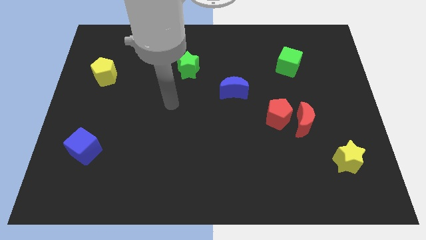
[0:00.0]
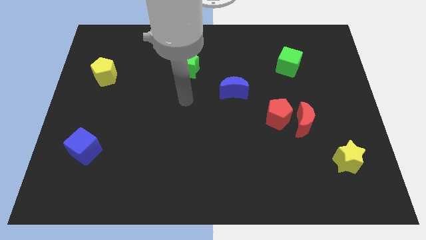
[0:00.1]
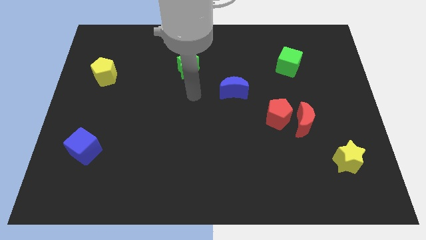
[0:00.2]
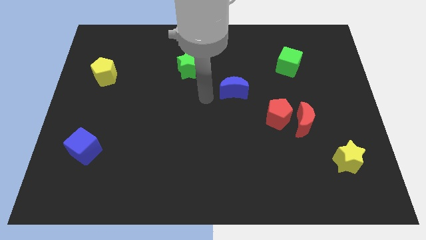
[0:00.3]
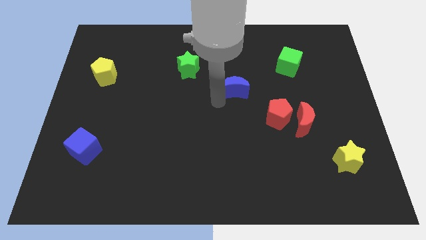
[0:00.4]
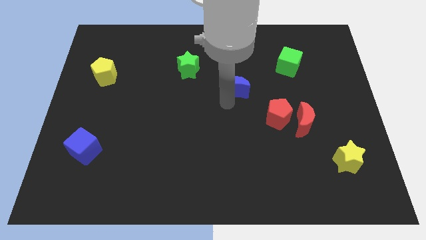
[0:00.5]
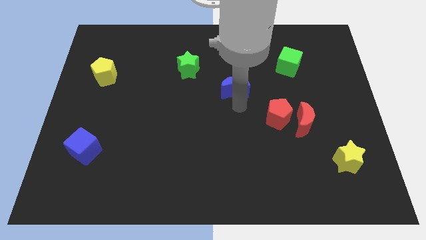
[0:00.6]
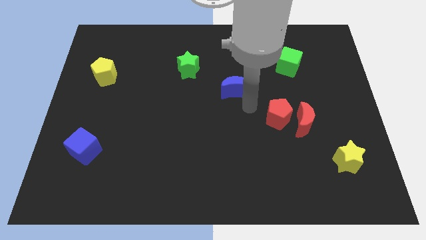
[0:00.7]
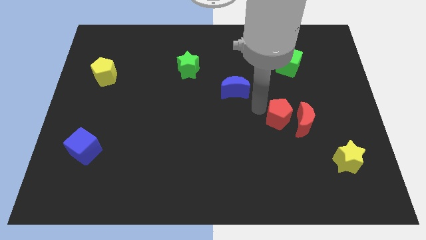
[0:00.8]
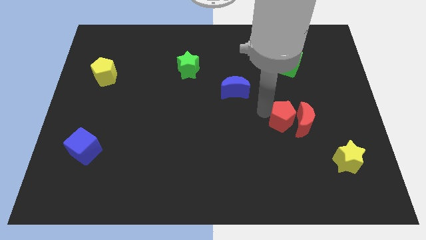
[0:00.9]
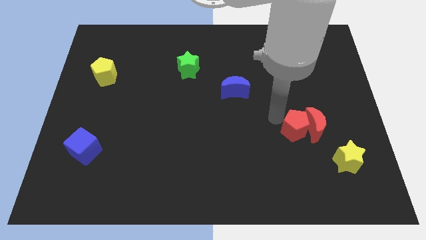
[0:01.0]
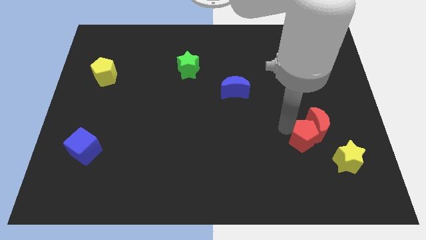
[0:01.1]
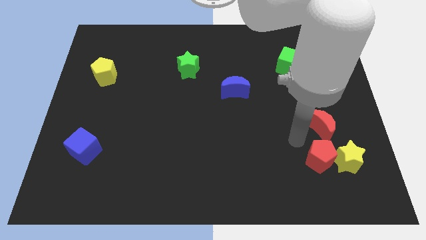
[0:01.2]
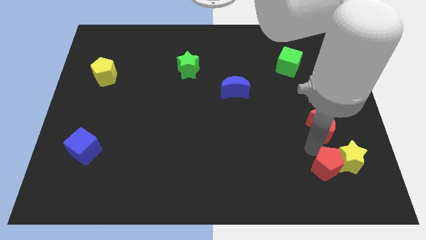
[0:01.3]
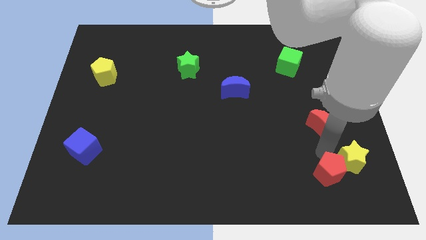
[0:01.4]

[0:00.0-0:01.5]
move the red moon away from the red pentagon

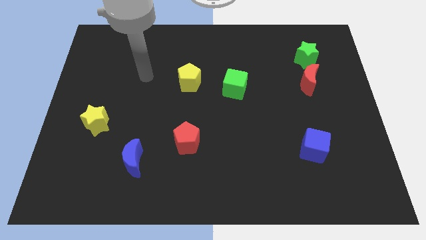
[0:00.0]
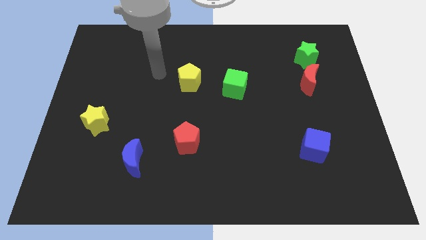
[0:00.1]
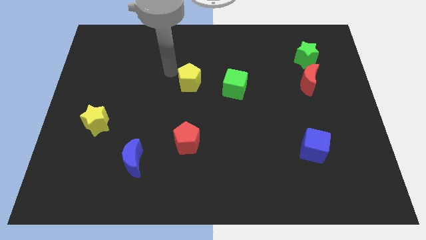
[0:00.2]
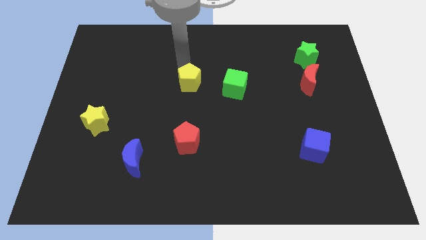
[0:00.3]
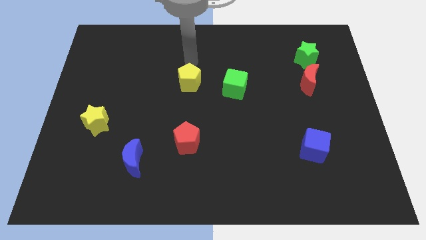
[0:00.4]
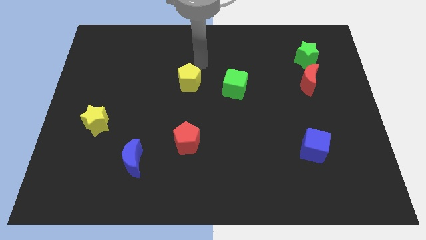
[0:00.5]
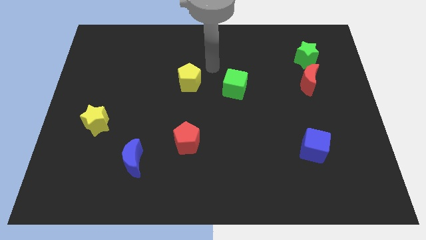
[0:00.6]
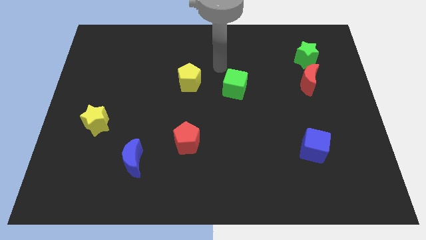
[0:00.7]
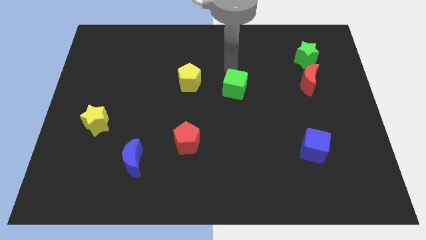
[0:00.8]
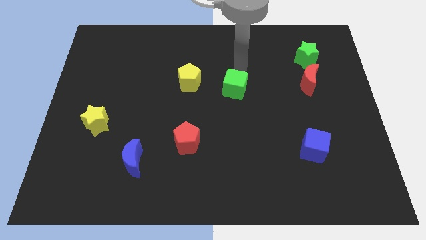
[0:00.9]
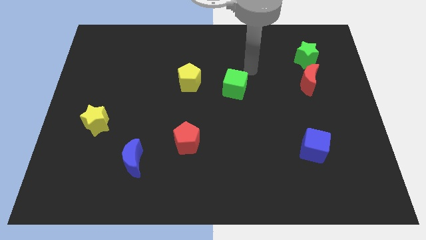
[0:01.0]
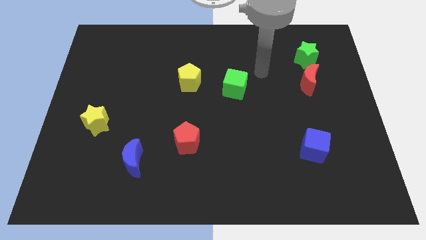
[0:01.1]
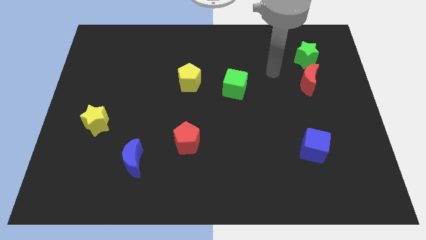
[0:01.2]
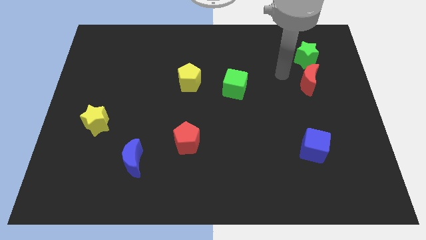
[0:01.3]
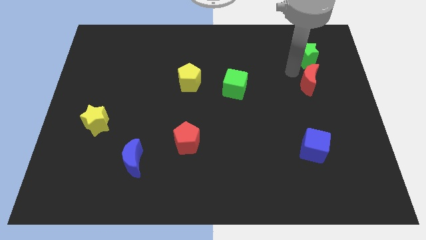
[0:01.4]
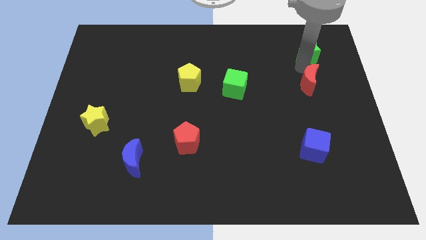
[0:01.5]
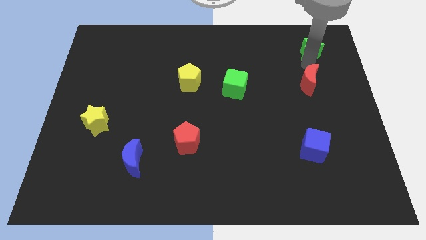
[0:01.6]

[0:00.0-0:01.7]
pull the red moon apart from the green star

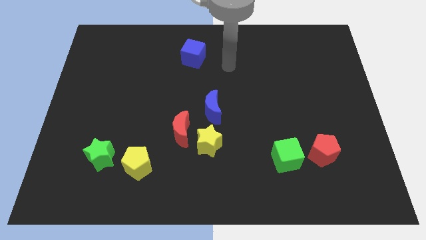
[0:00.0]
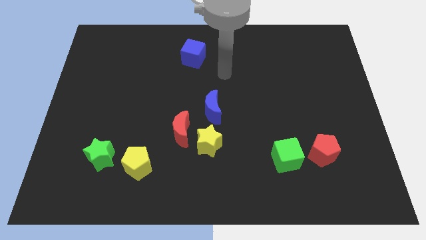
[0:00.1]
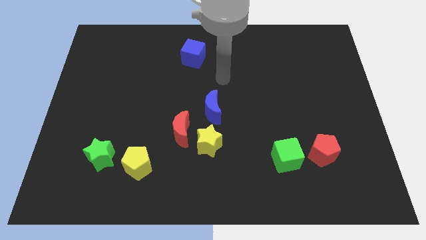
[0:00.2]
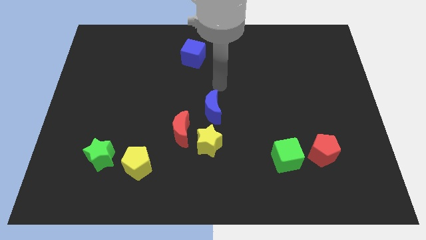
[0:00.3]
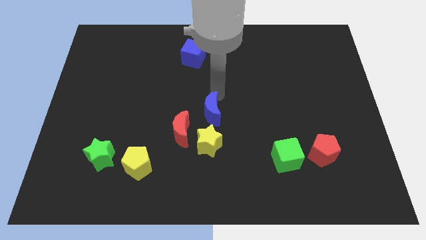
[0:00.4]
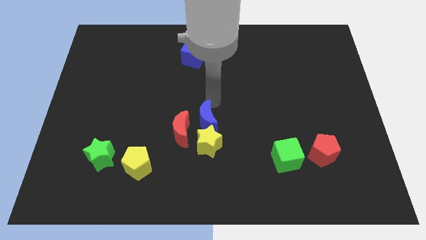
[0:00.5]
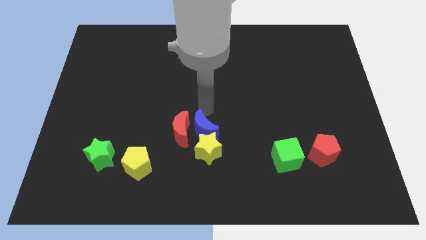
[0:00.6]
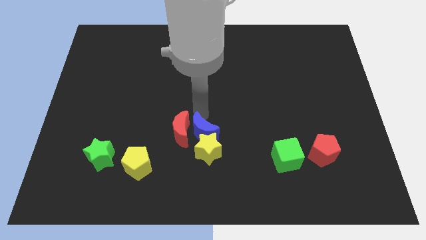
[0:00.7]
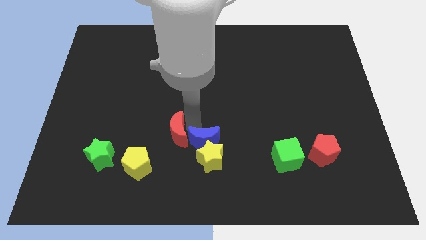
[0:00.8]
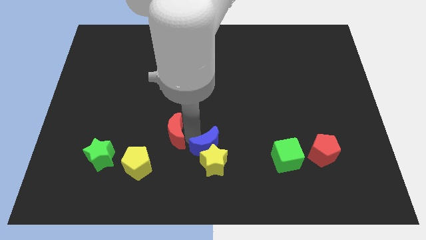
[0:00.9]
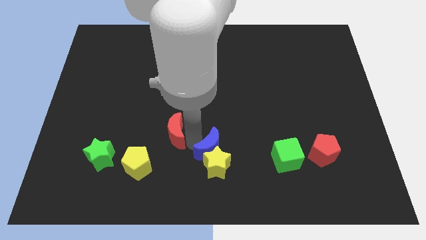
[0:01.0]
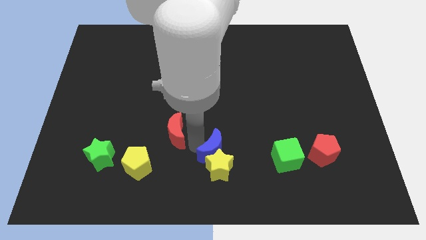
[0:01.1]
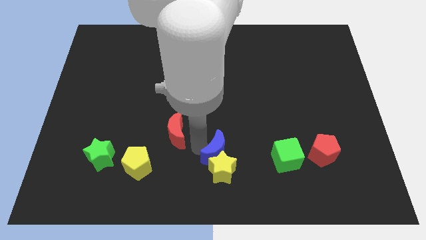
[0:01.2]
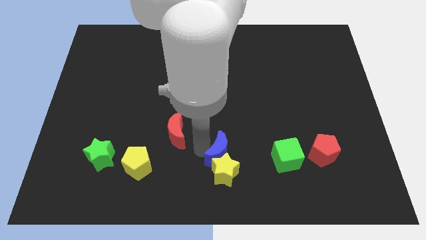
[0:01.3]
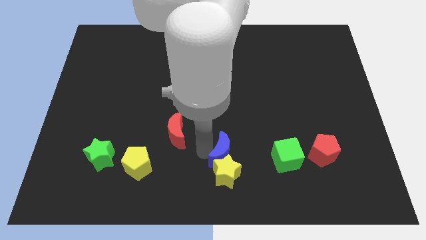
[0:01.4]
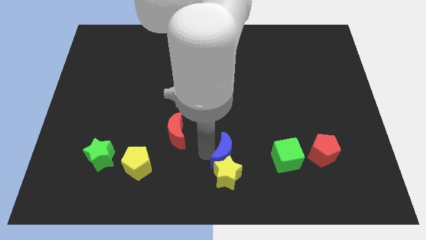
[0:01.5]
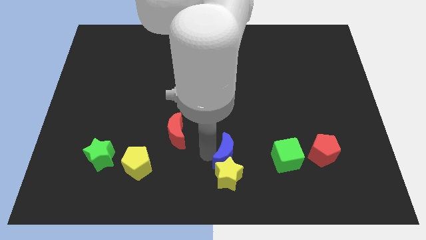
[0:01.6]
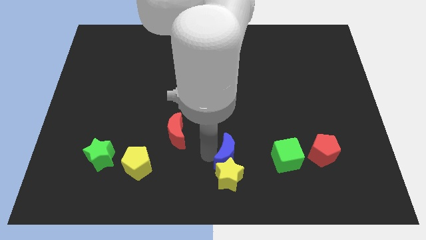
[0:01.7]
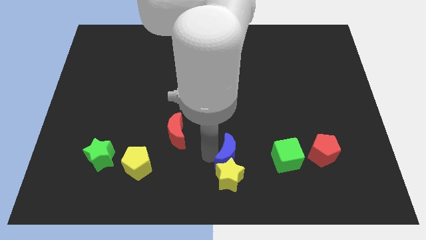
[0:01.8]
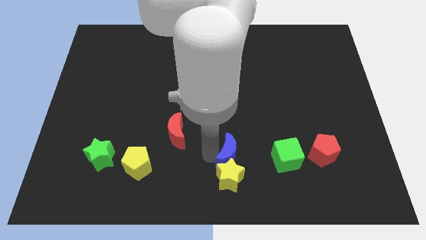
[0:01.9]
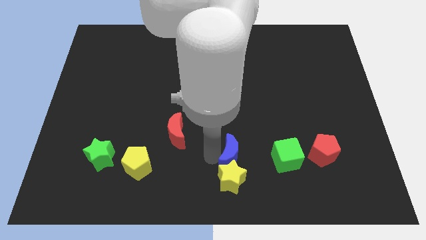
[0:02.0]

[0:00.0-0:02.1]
pull the yellow star apart from the red moon and blue moon

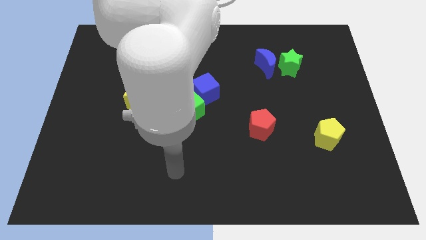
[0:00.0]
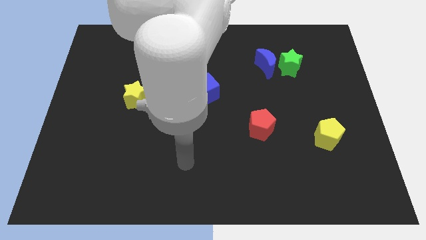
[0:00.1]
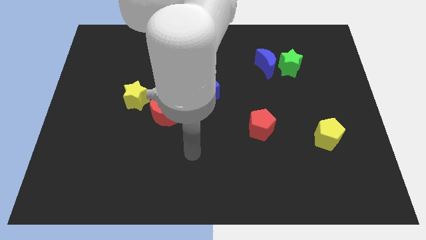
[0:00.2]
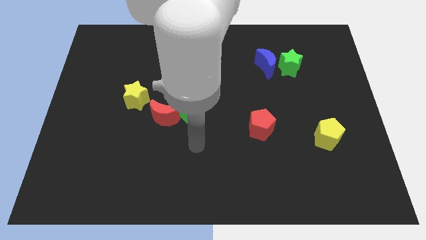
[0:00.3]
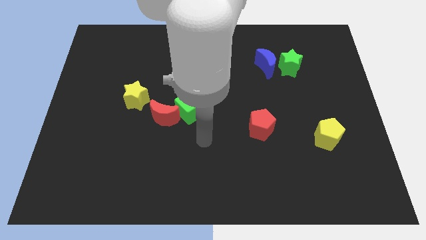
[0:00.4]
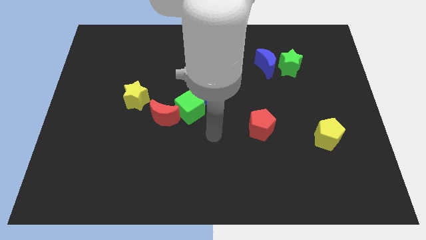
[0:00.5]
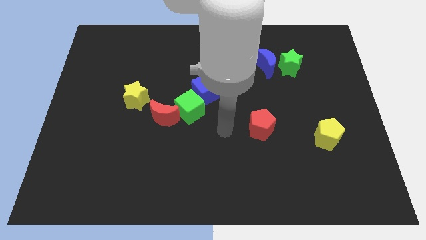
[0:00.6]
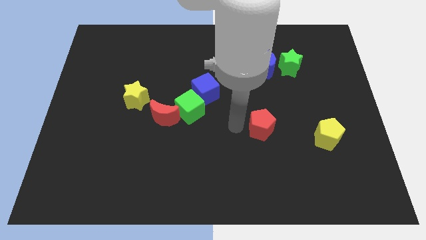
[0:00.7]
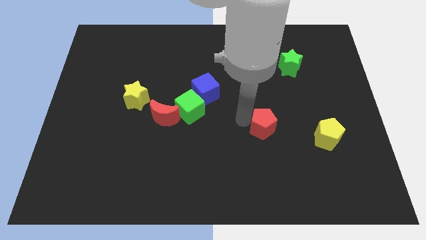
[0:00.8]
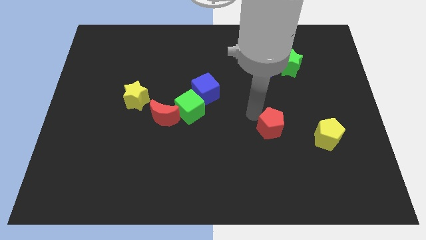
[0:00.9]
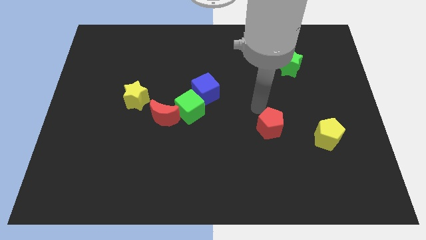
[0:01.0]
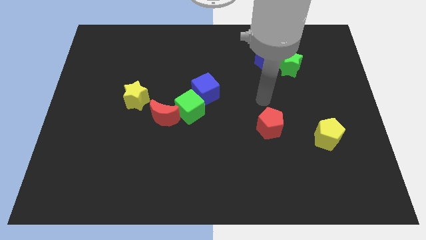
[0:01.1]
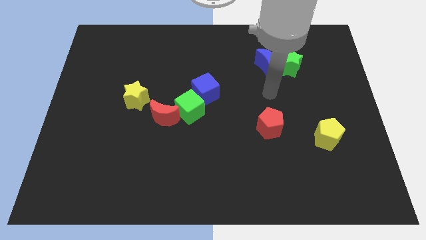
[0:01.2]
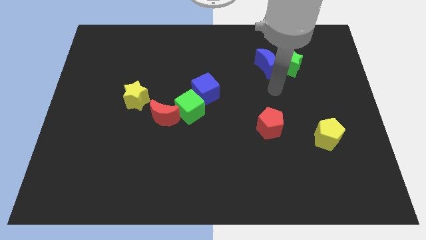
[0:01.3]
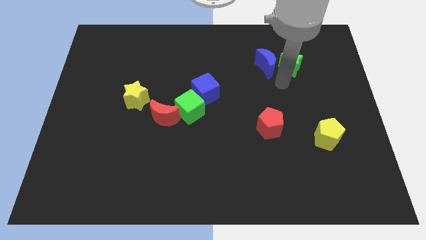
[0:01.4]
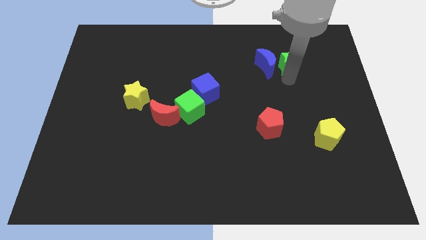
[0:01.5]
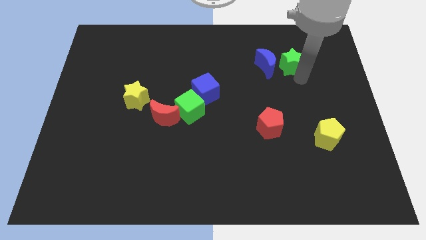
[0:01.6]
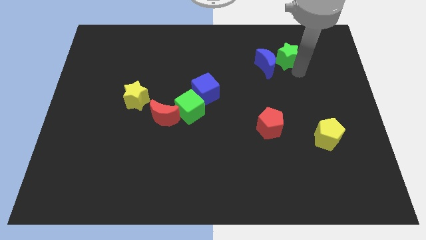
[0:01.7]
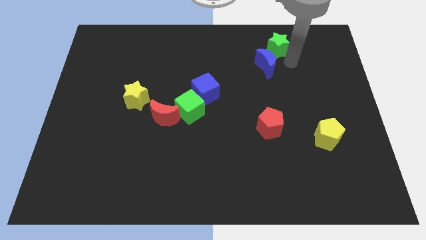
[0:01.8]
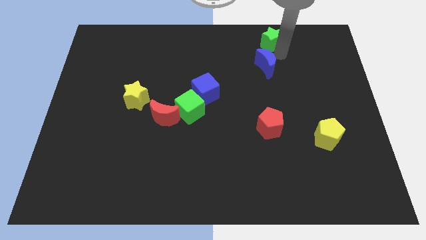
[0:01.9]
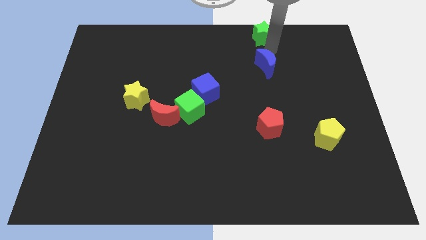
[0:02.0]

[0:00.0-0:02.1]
pull the blue moon apart from the green star

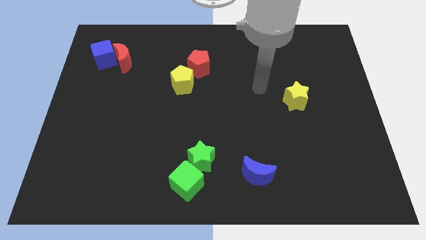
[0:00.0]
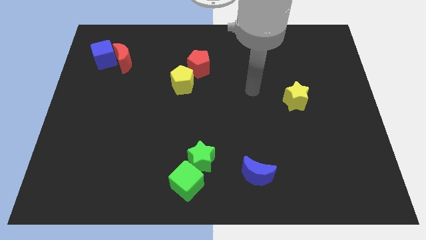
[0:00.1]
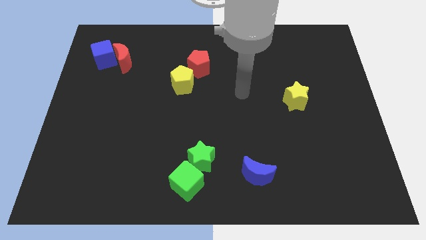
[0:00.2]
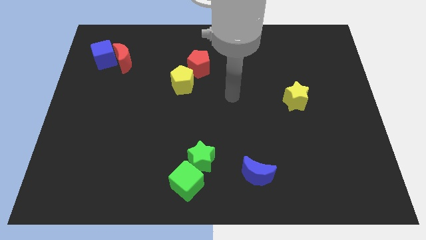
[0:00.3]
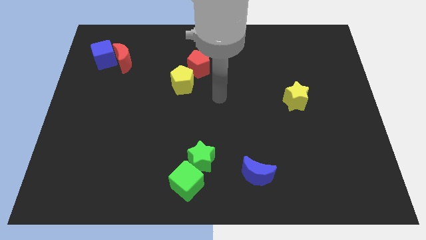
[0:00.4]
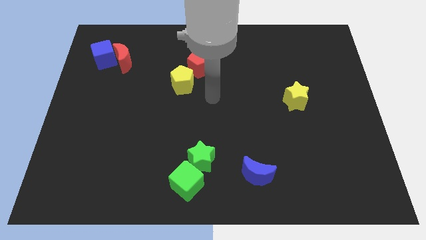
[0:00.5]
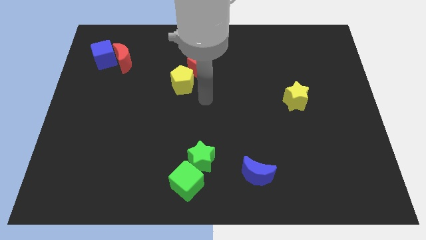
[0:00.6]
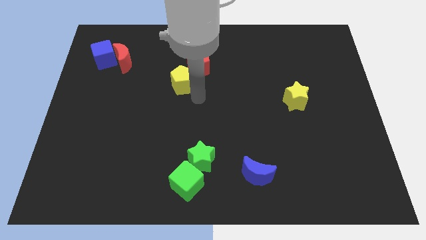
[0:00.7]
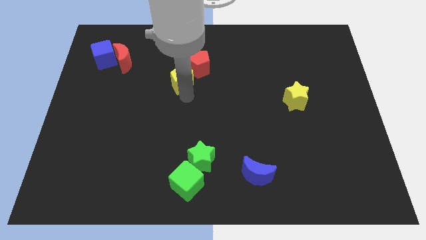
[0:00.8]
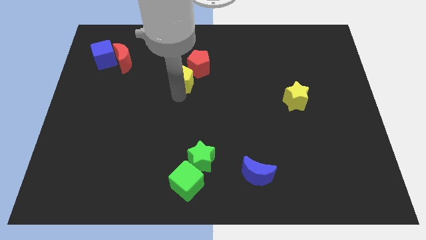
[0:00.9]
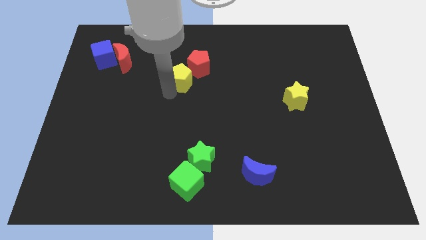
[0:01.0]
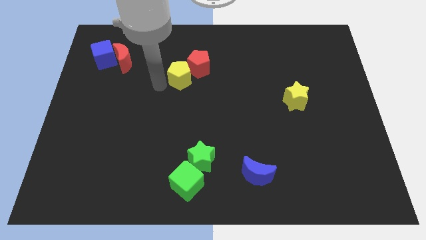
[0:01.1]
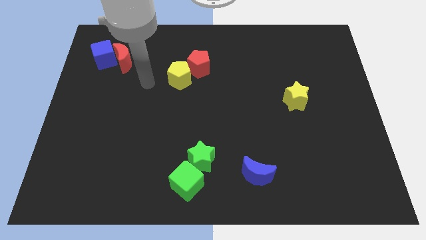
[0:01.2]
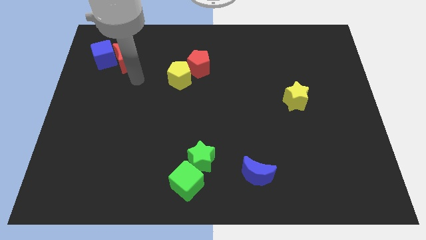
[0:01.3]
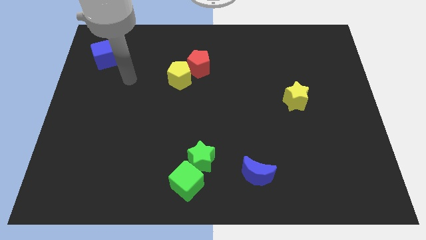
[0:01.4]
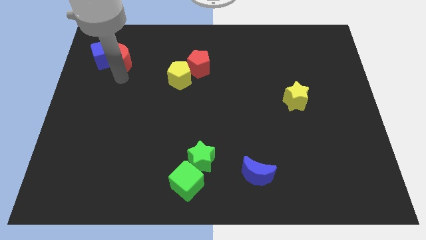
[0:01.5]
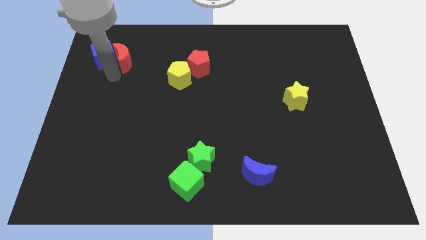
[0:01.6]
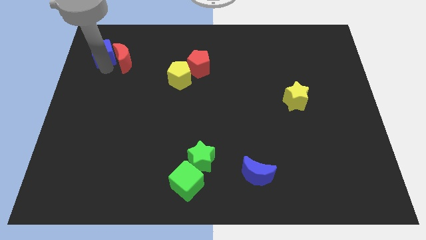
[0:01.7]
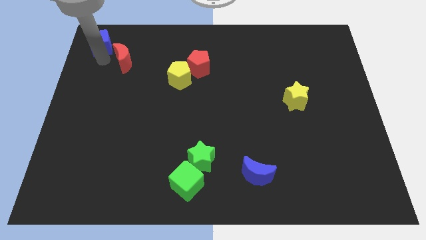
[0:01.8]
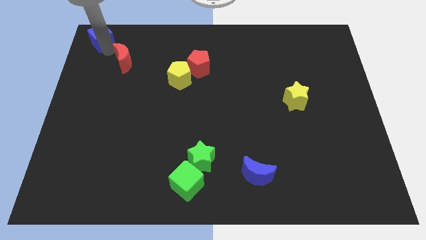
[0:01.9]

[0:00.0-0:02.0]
separate the red moon from the blue cube
